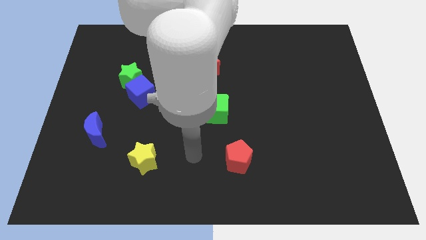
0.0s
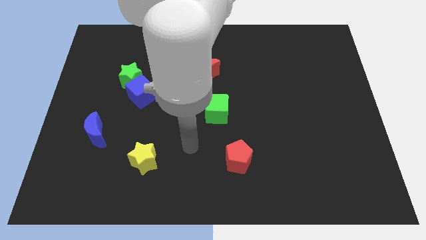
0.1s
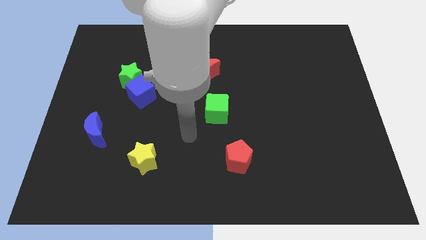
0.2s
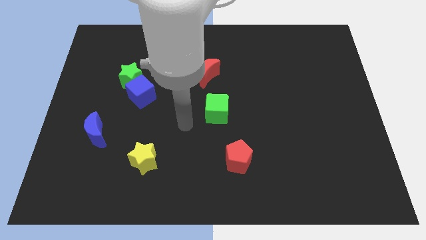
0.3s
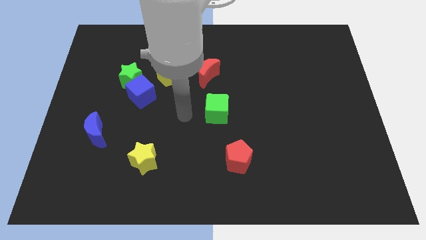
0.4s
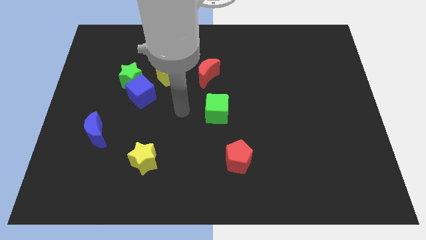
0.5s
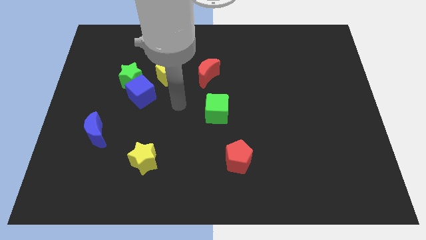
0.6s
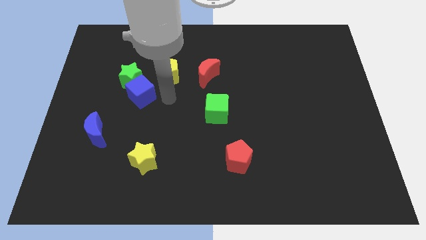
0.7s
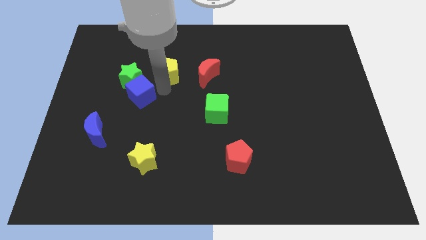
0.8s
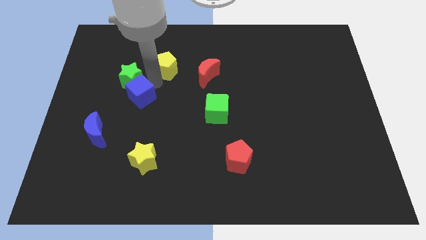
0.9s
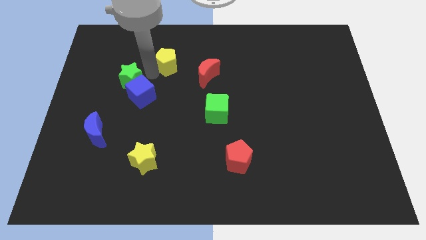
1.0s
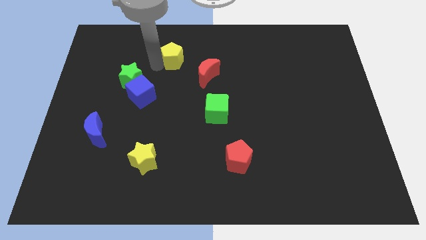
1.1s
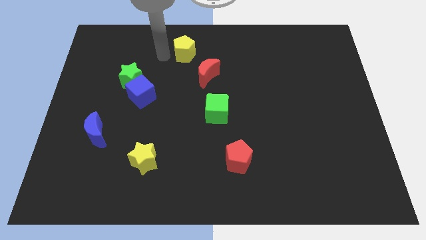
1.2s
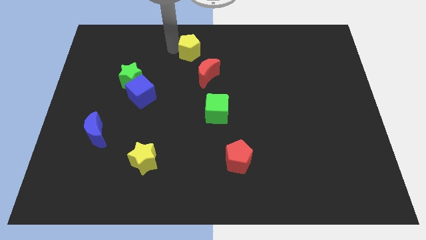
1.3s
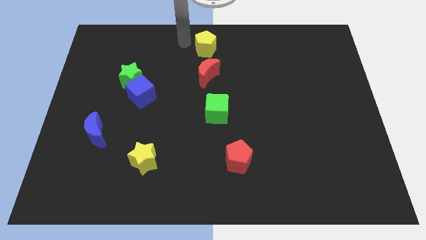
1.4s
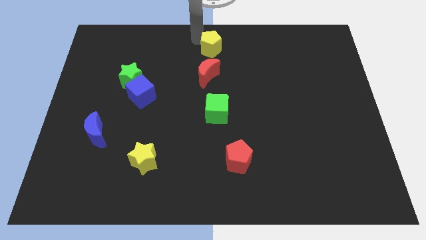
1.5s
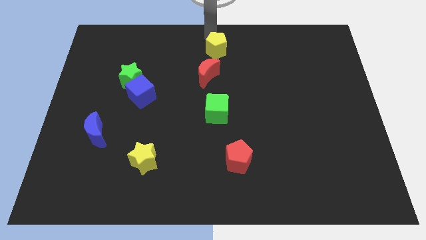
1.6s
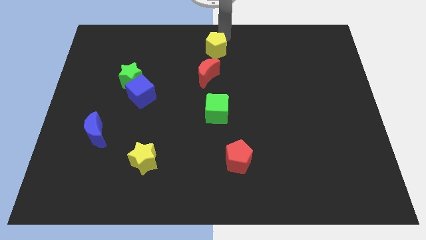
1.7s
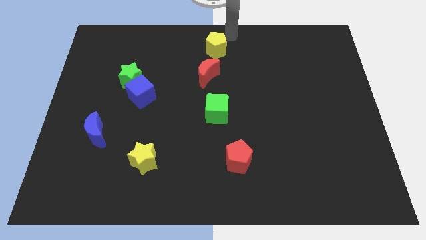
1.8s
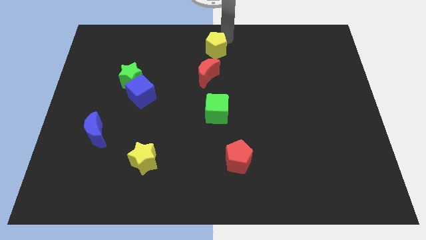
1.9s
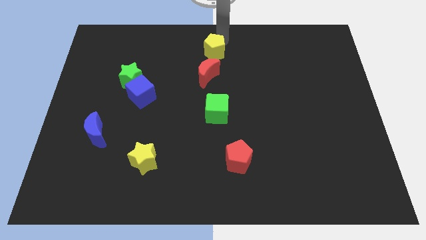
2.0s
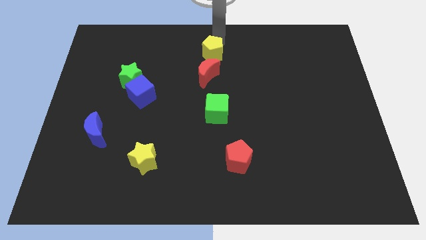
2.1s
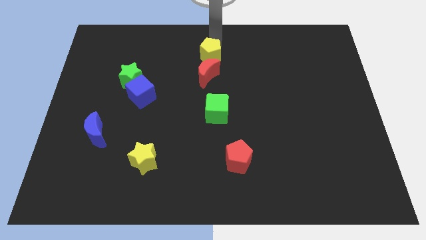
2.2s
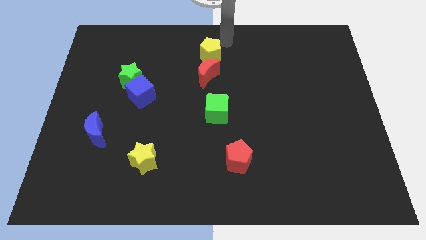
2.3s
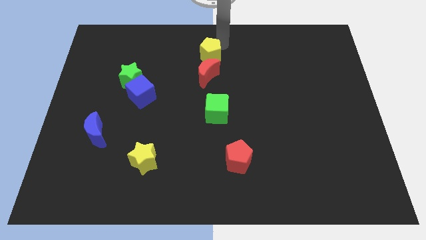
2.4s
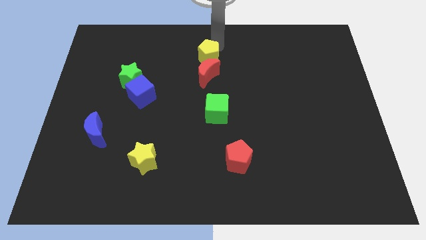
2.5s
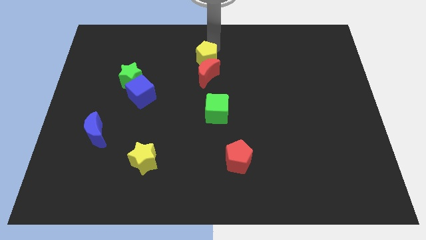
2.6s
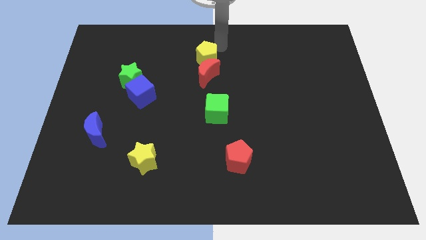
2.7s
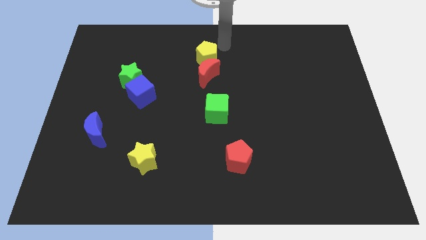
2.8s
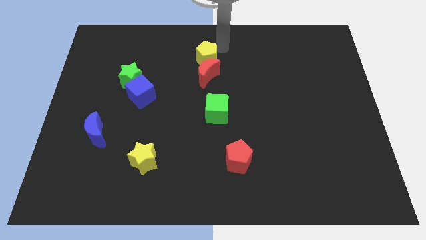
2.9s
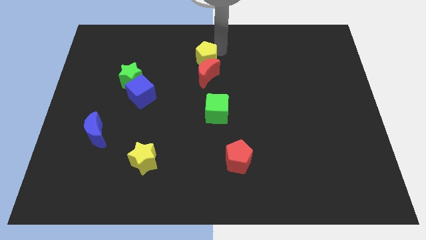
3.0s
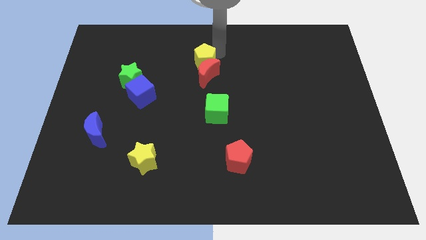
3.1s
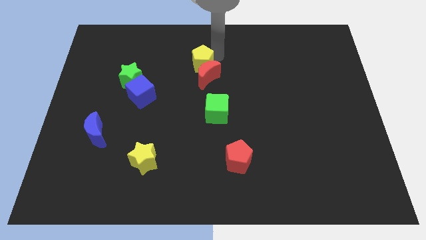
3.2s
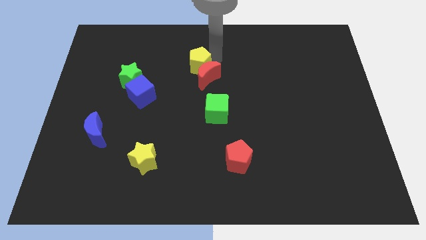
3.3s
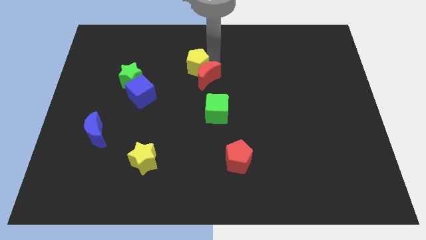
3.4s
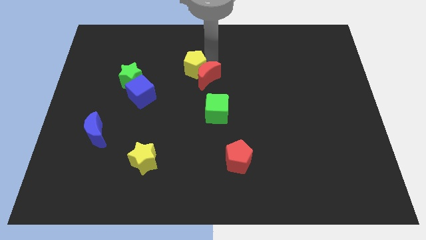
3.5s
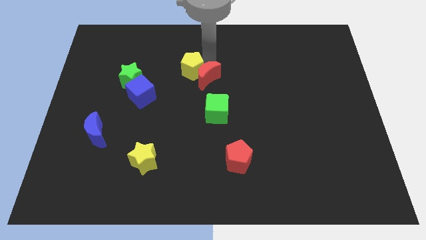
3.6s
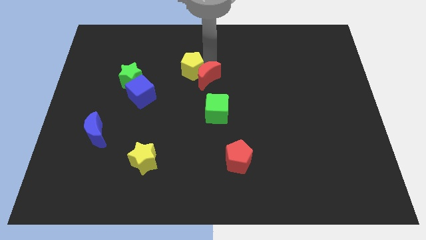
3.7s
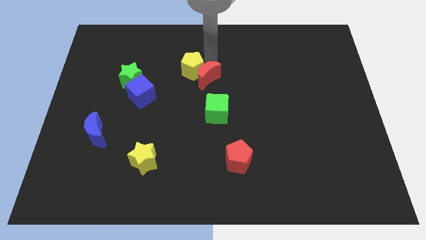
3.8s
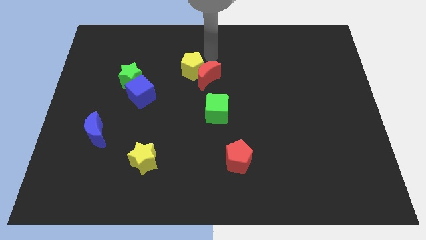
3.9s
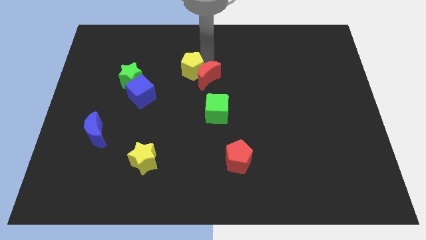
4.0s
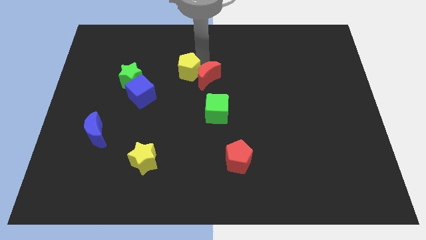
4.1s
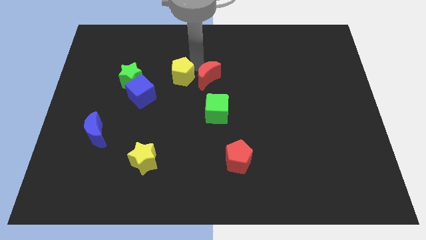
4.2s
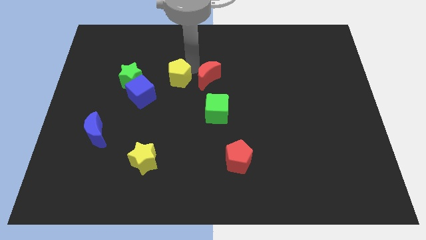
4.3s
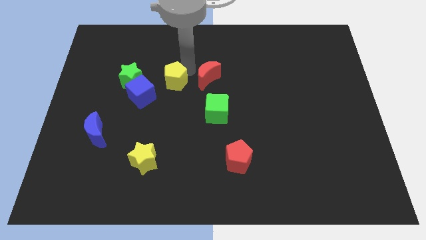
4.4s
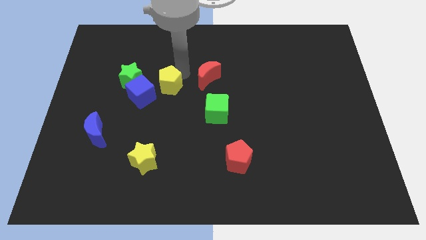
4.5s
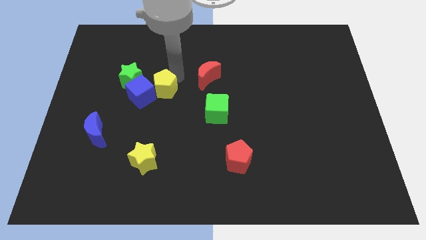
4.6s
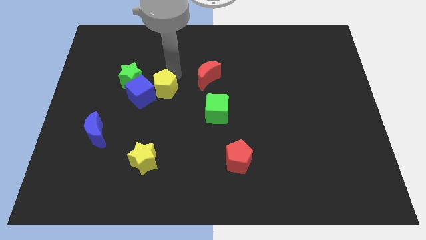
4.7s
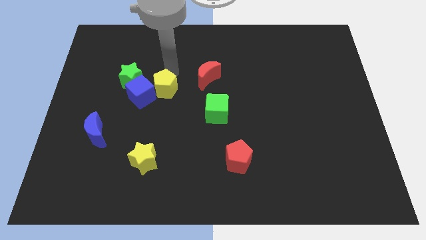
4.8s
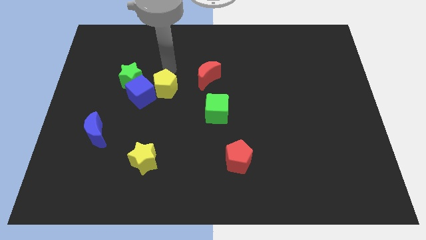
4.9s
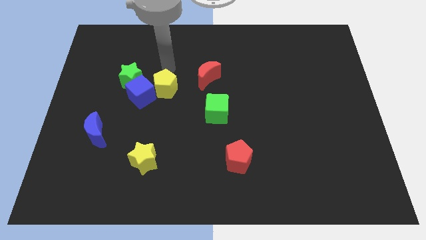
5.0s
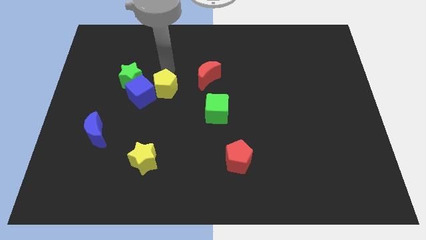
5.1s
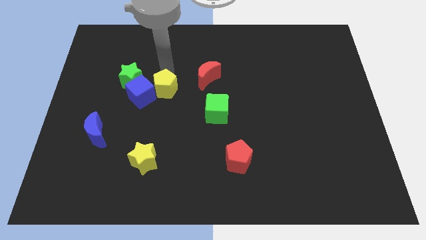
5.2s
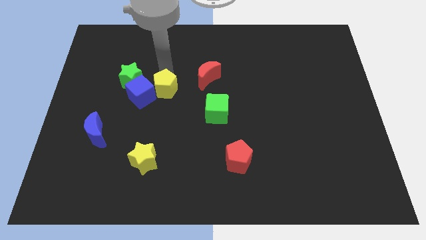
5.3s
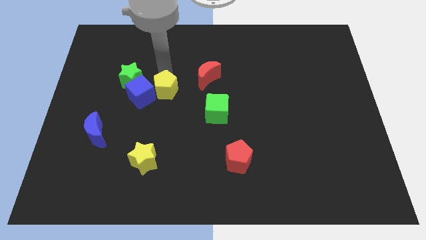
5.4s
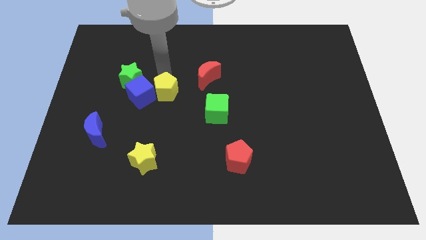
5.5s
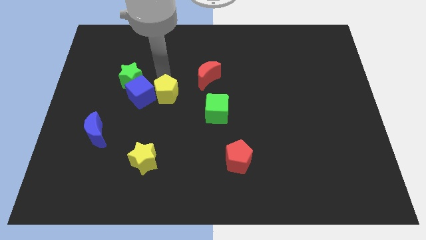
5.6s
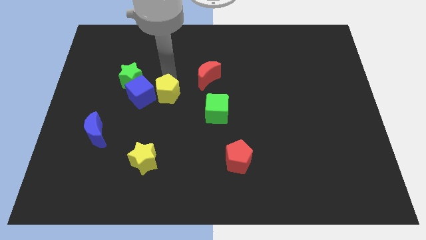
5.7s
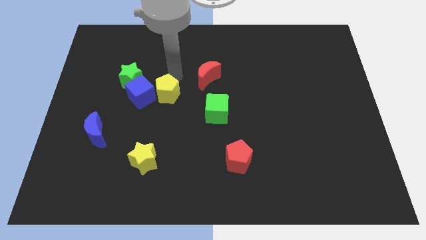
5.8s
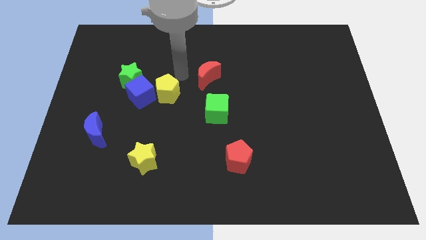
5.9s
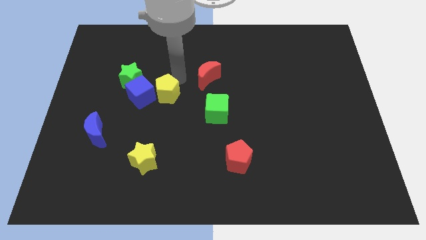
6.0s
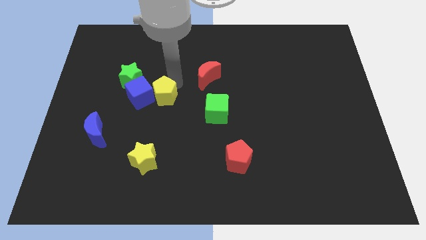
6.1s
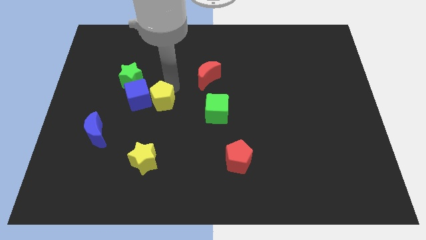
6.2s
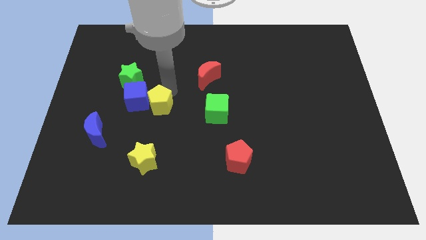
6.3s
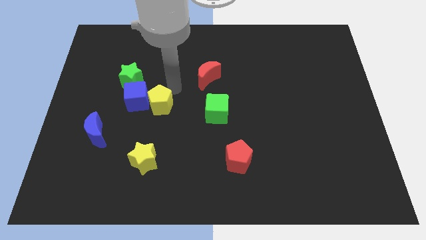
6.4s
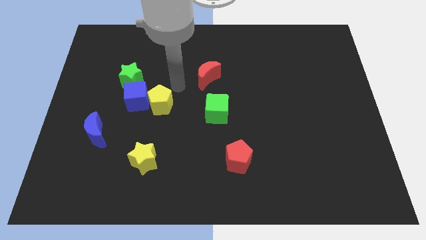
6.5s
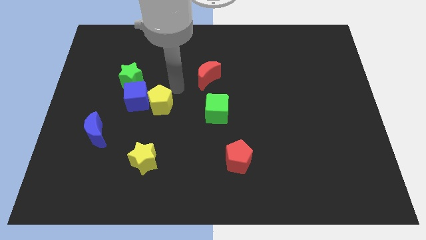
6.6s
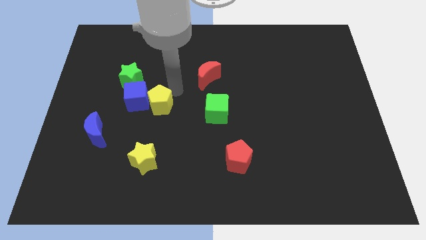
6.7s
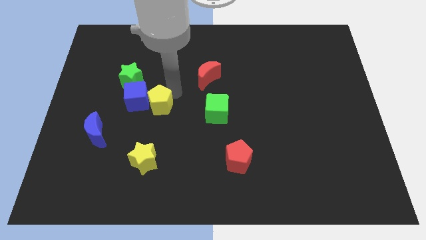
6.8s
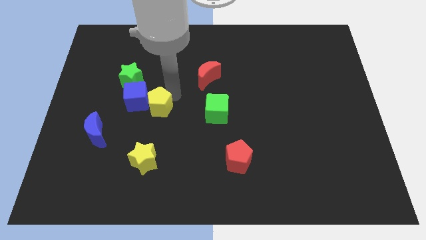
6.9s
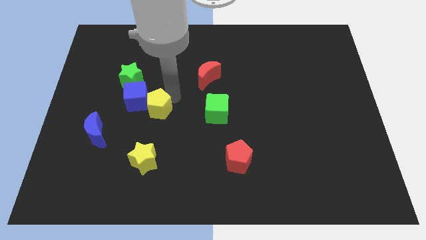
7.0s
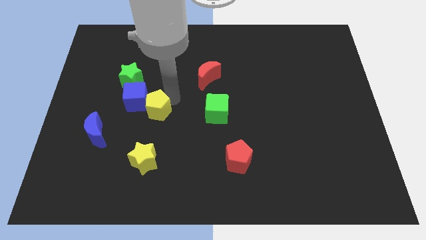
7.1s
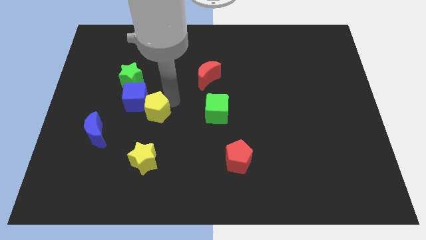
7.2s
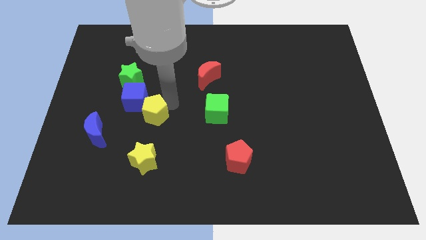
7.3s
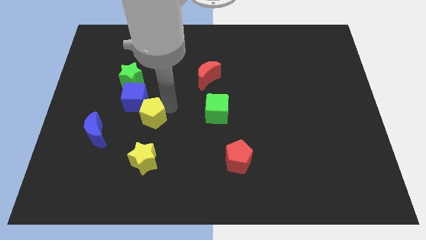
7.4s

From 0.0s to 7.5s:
move the yellow pentagon to the bottom of the blue cube

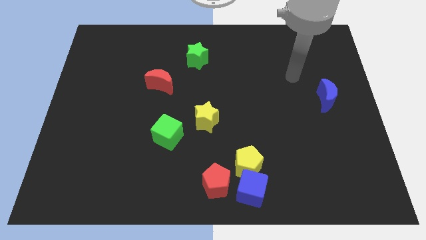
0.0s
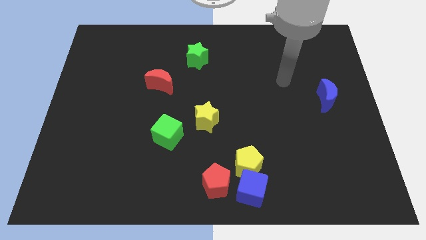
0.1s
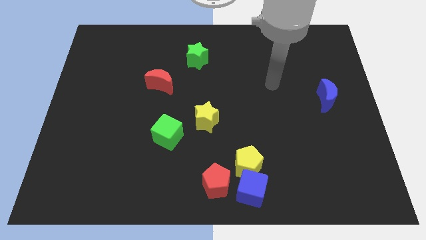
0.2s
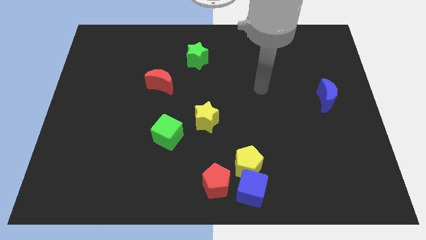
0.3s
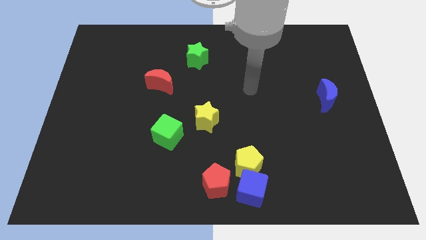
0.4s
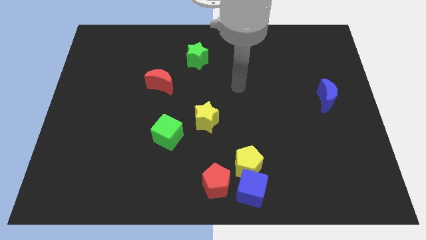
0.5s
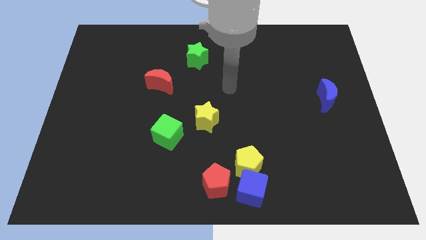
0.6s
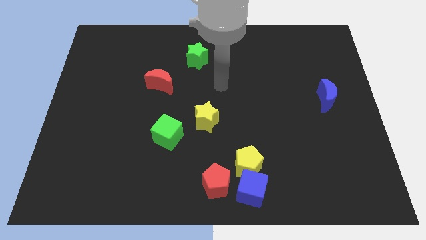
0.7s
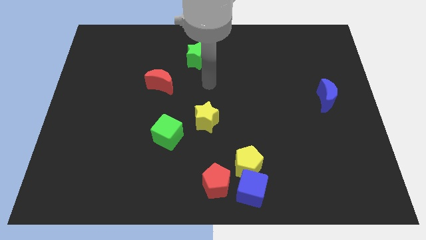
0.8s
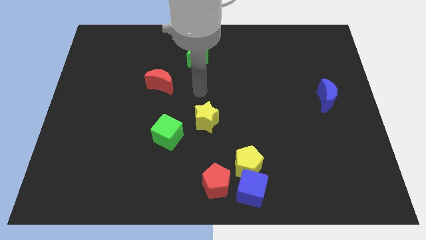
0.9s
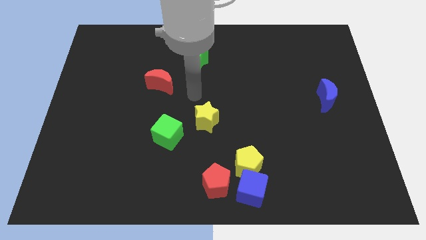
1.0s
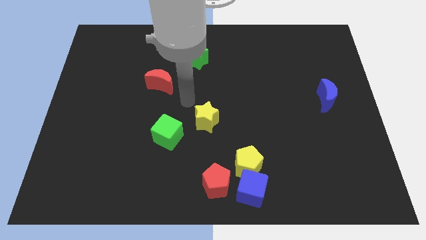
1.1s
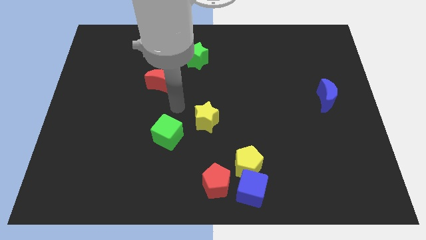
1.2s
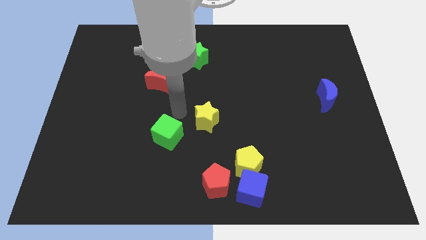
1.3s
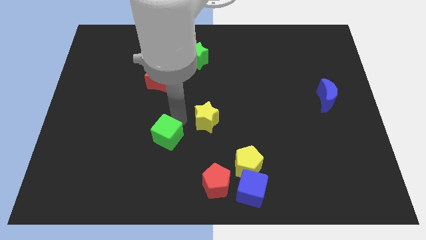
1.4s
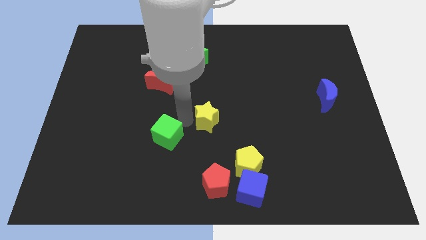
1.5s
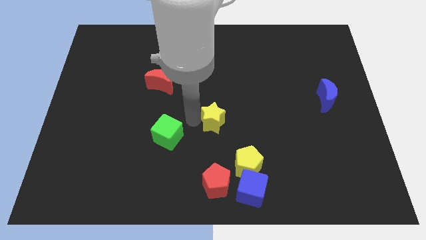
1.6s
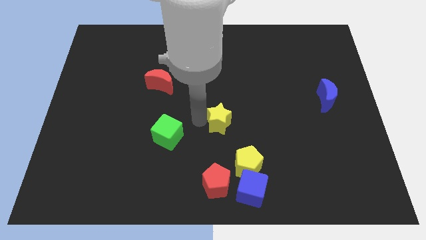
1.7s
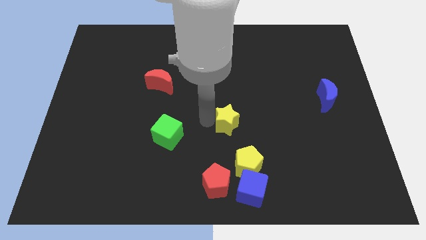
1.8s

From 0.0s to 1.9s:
slide the yellow star to the top of the yellow pentagon
